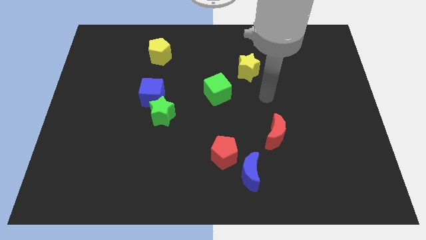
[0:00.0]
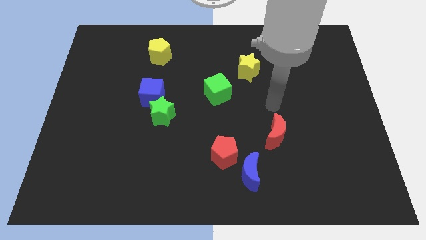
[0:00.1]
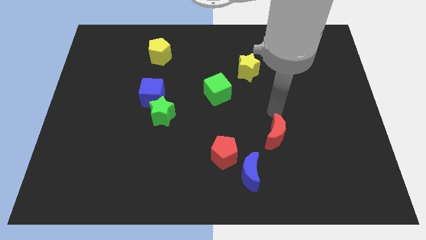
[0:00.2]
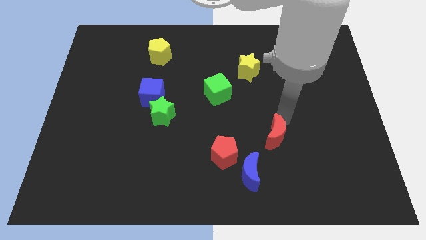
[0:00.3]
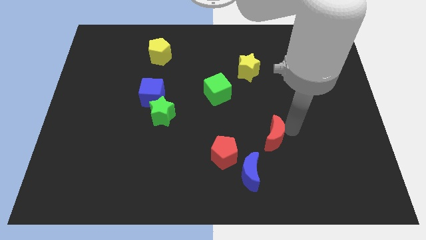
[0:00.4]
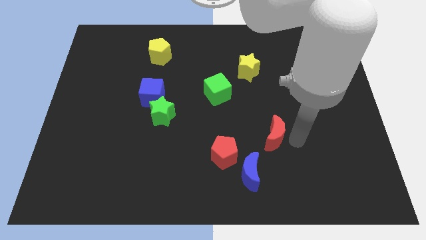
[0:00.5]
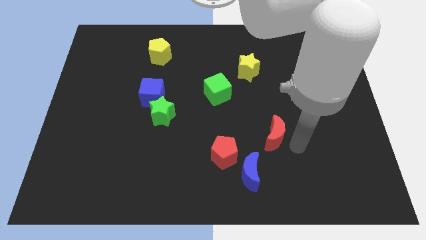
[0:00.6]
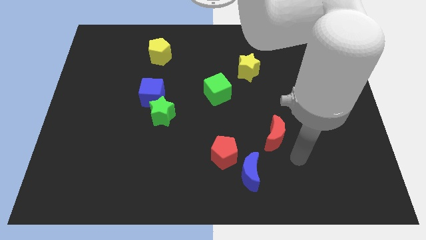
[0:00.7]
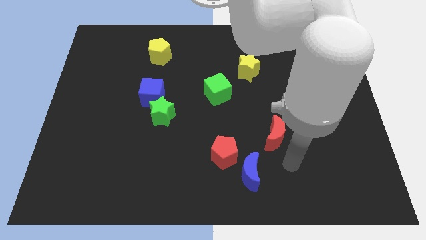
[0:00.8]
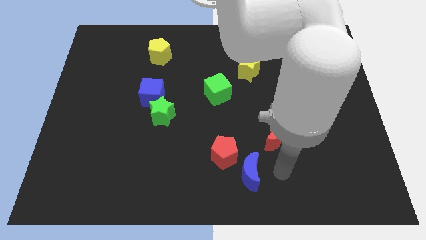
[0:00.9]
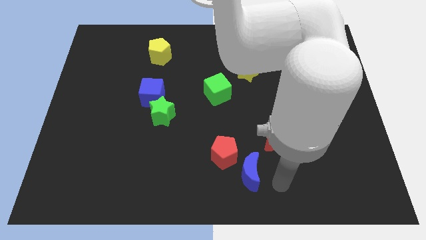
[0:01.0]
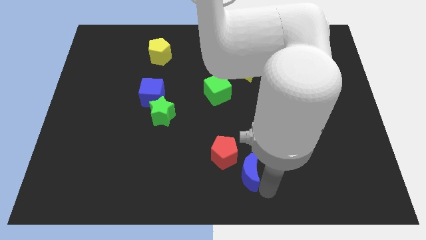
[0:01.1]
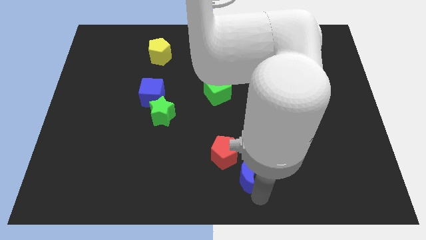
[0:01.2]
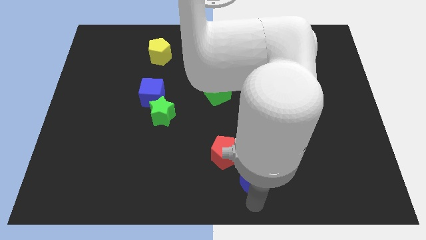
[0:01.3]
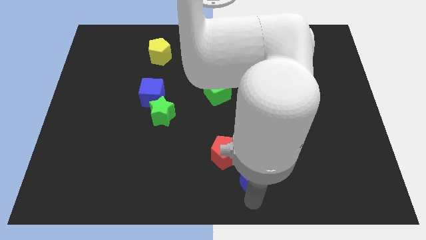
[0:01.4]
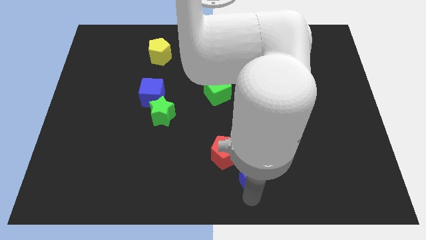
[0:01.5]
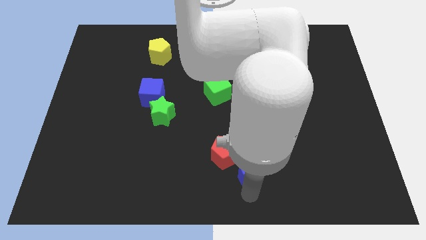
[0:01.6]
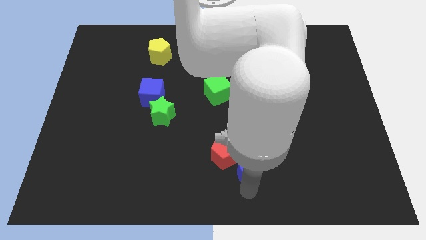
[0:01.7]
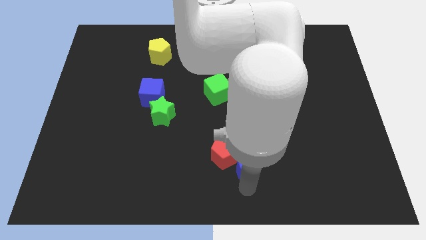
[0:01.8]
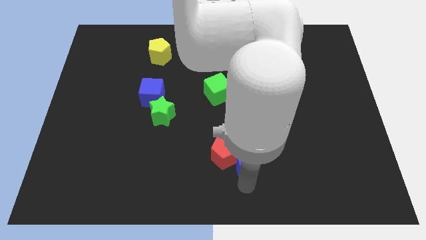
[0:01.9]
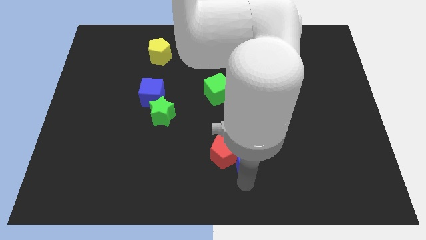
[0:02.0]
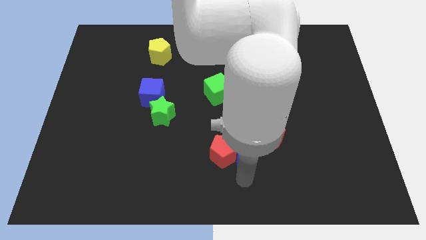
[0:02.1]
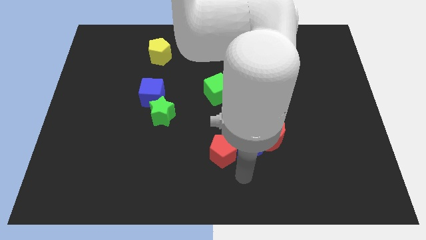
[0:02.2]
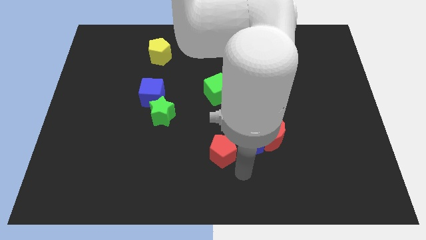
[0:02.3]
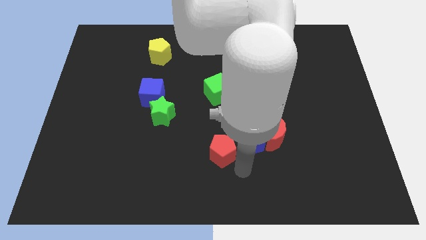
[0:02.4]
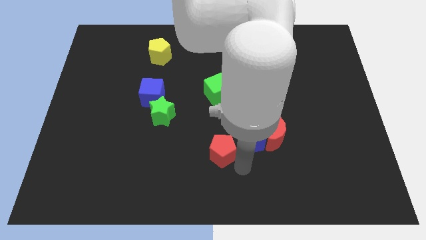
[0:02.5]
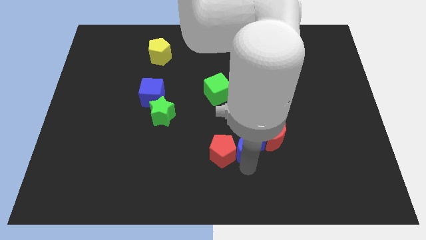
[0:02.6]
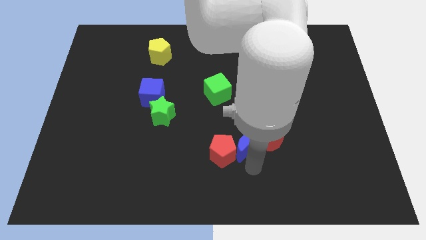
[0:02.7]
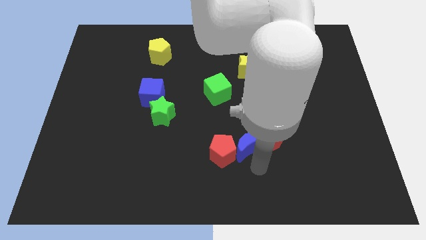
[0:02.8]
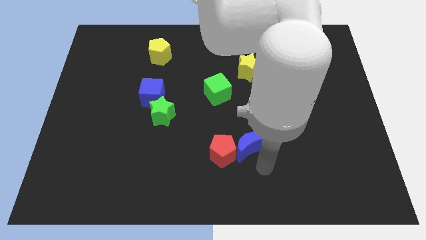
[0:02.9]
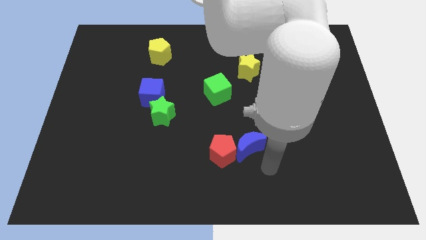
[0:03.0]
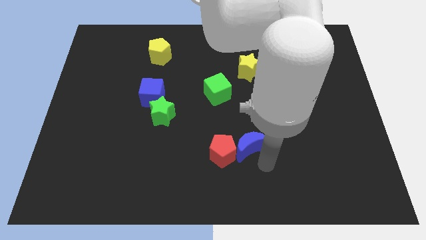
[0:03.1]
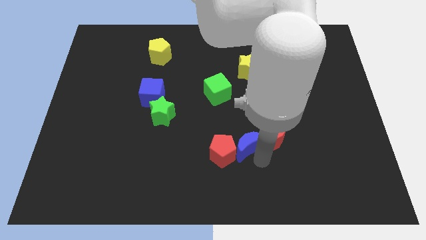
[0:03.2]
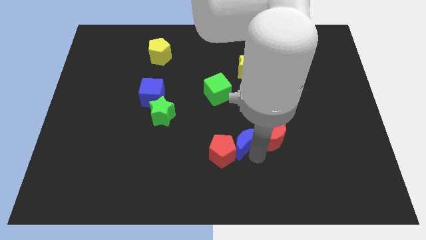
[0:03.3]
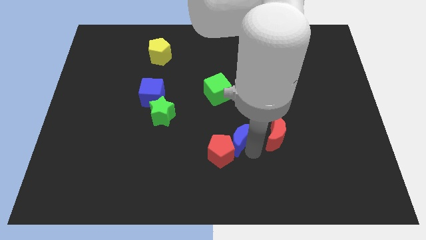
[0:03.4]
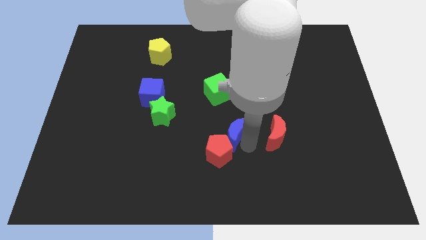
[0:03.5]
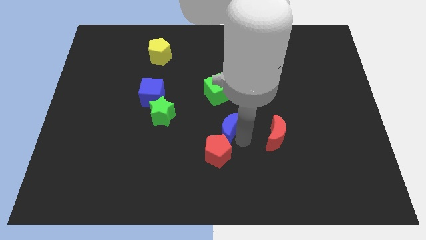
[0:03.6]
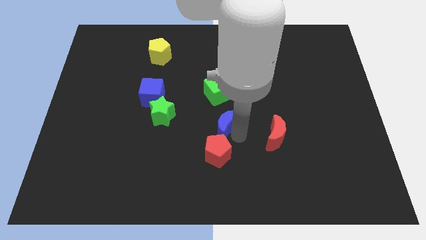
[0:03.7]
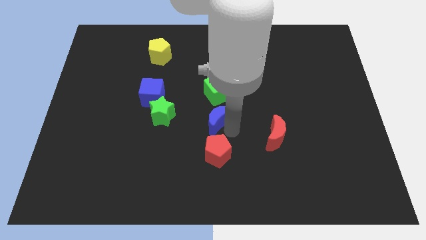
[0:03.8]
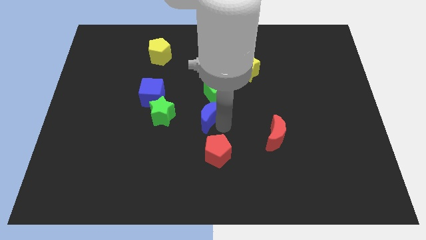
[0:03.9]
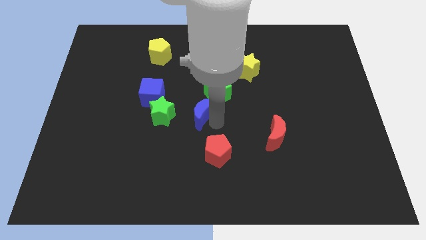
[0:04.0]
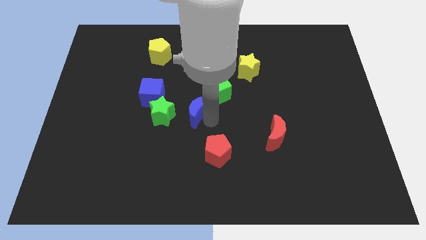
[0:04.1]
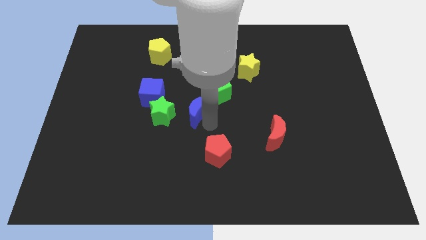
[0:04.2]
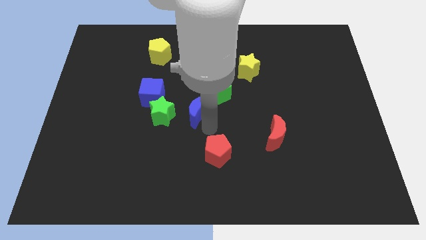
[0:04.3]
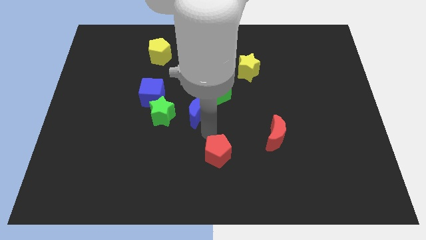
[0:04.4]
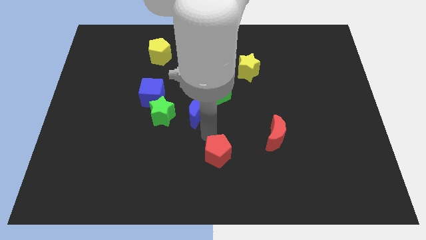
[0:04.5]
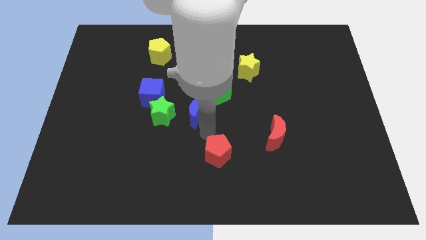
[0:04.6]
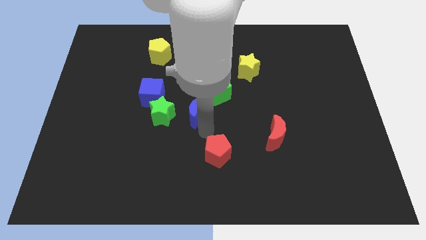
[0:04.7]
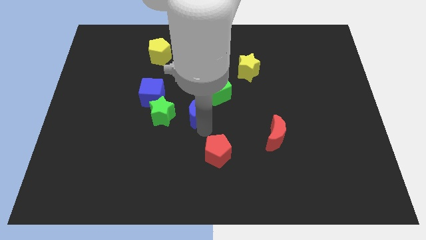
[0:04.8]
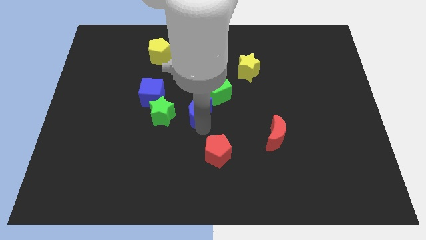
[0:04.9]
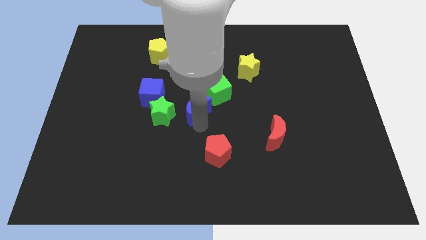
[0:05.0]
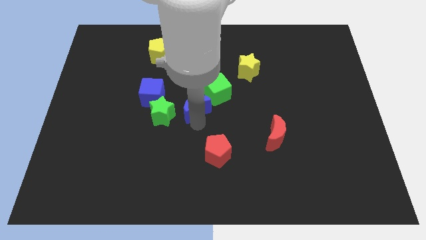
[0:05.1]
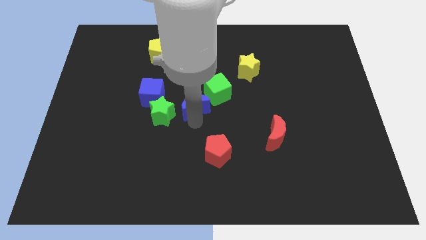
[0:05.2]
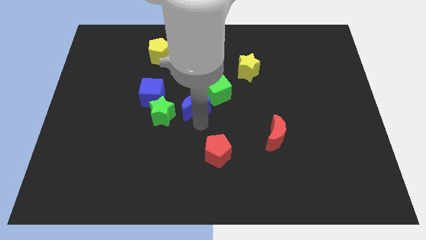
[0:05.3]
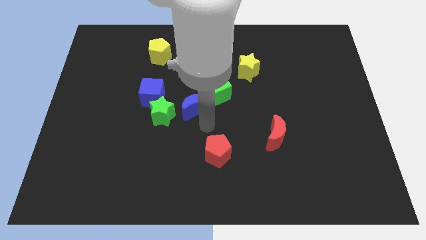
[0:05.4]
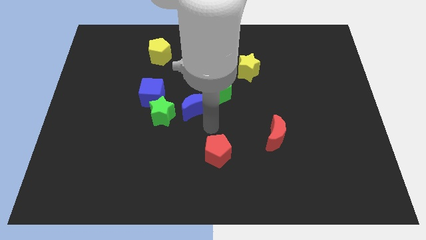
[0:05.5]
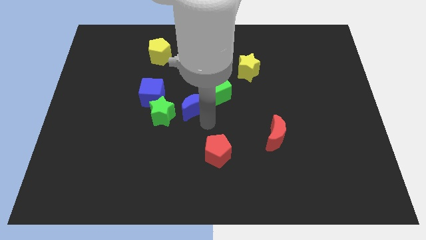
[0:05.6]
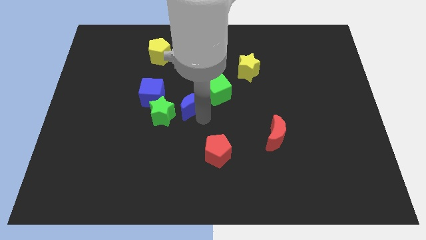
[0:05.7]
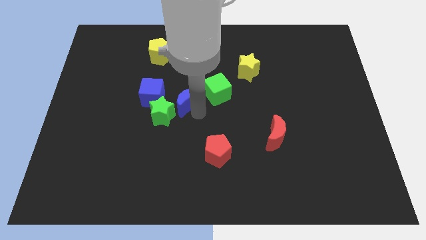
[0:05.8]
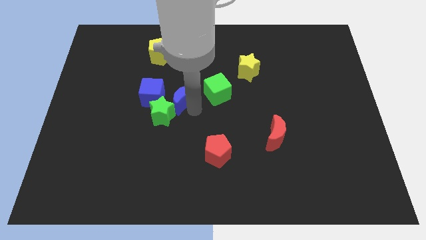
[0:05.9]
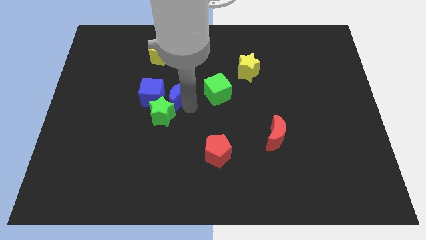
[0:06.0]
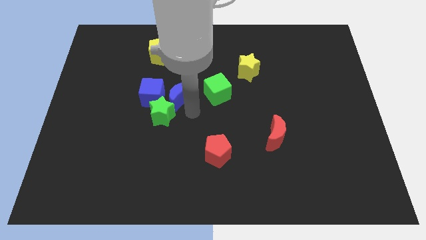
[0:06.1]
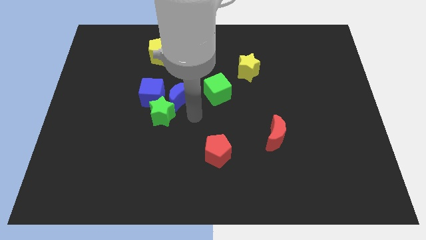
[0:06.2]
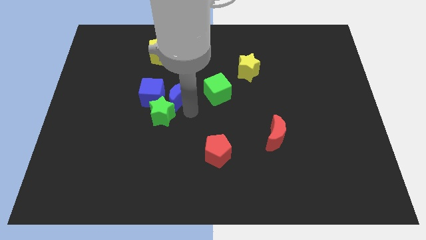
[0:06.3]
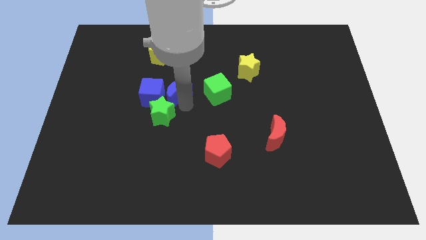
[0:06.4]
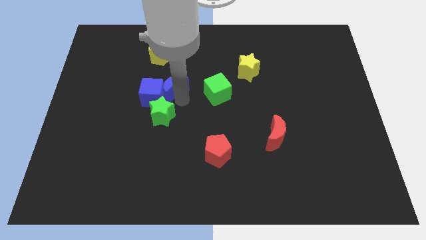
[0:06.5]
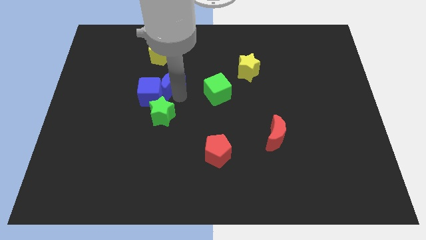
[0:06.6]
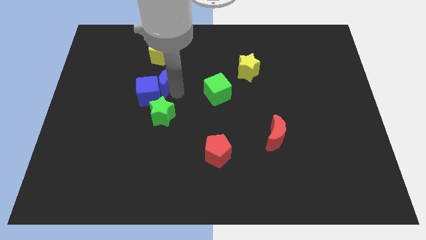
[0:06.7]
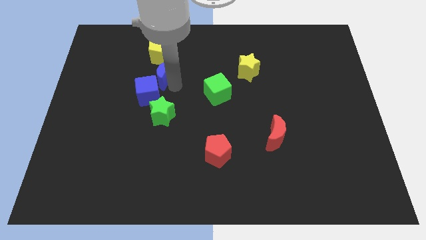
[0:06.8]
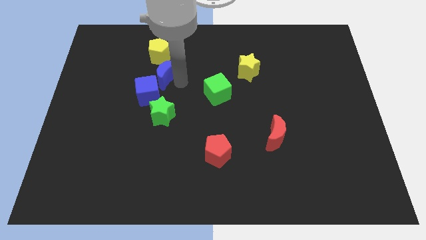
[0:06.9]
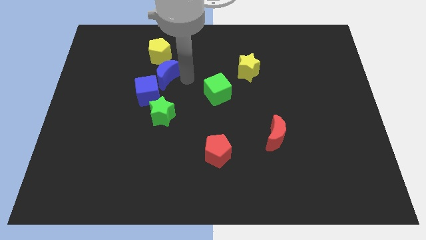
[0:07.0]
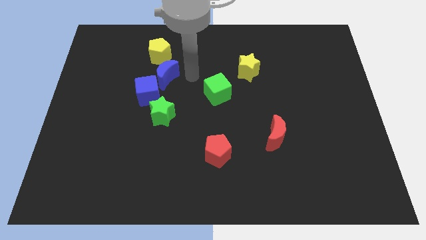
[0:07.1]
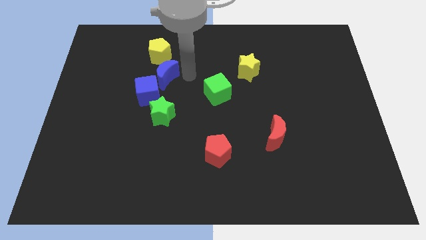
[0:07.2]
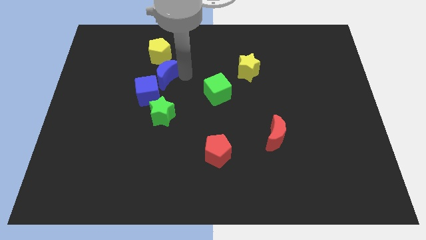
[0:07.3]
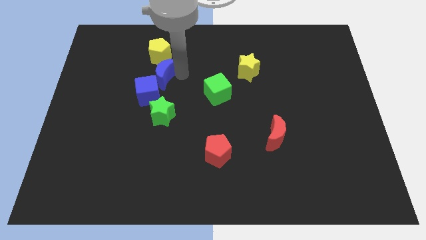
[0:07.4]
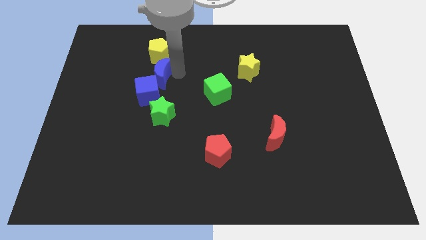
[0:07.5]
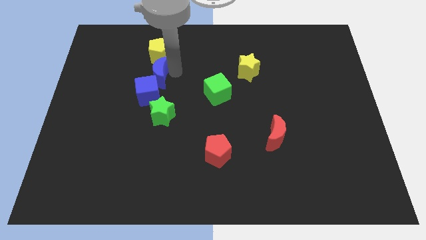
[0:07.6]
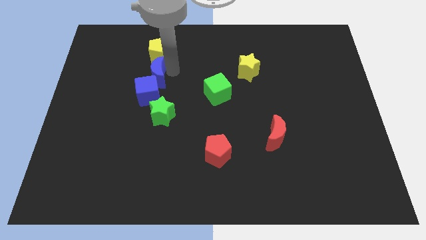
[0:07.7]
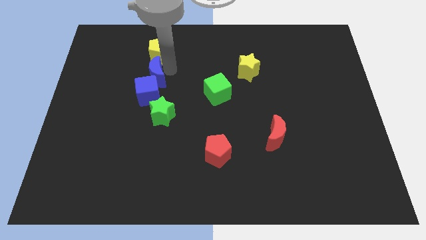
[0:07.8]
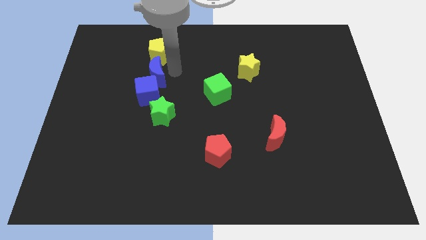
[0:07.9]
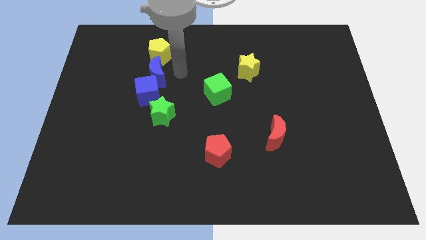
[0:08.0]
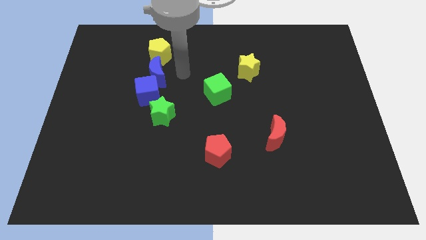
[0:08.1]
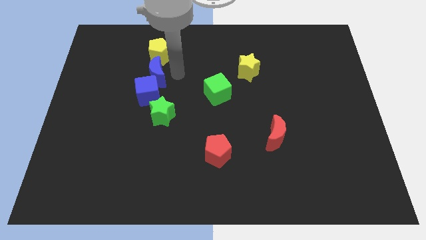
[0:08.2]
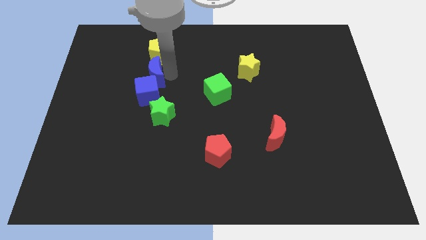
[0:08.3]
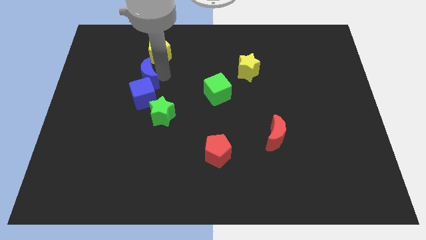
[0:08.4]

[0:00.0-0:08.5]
move the blue moon to the top left of the blue cube
